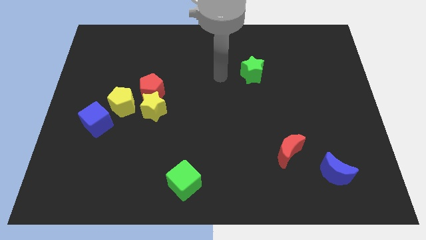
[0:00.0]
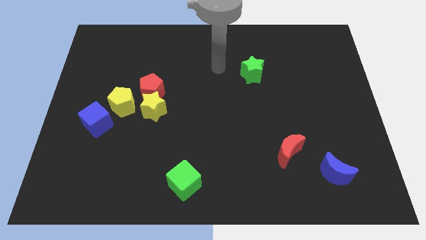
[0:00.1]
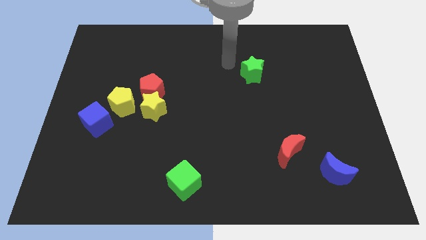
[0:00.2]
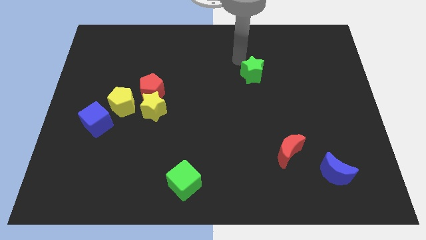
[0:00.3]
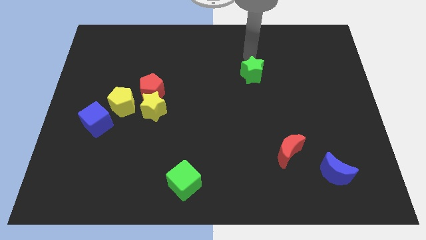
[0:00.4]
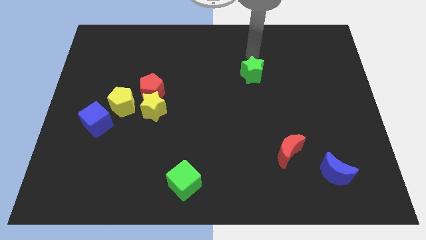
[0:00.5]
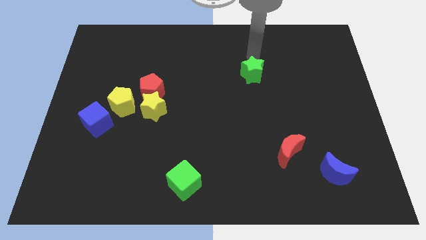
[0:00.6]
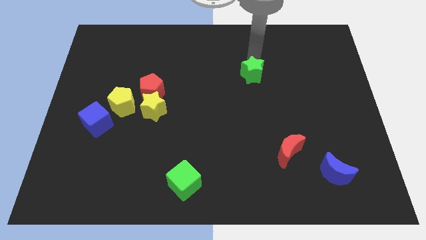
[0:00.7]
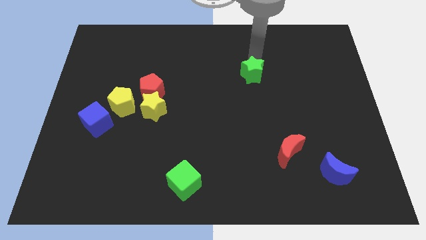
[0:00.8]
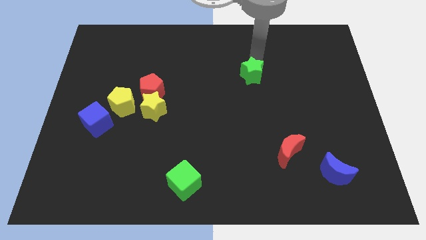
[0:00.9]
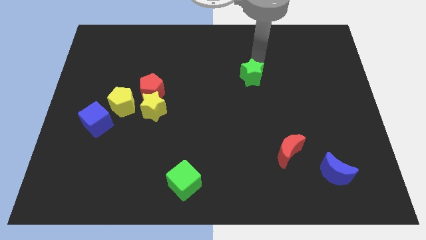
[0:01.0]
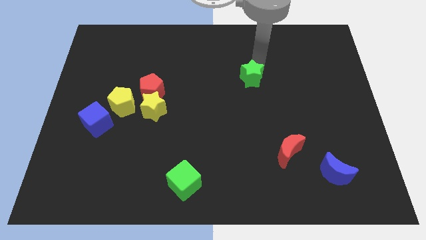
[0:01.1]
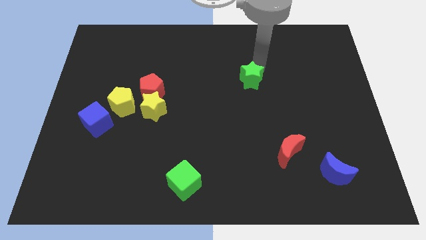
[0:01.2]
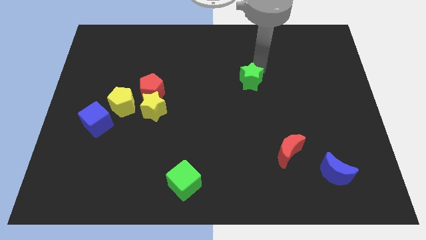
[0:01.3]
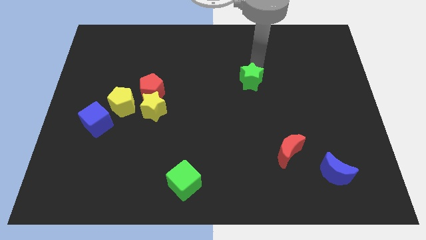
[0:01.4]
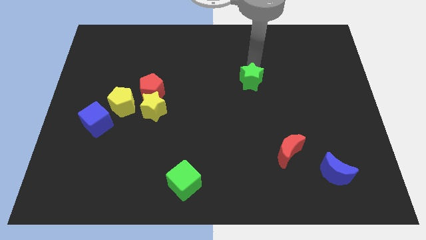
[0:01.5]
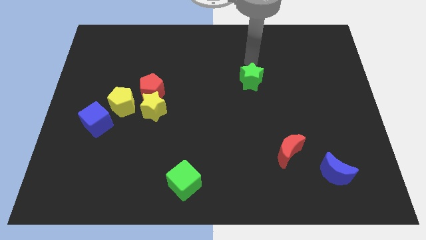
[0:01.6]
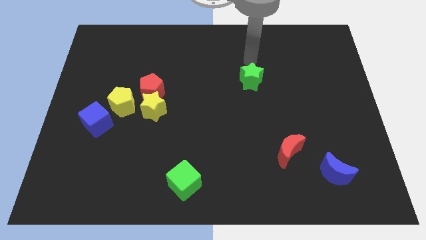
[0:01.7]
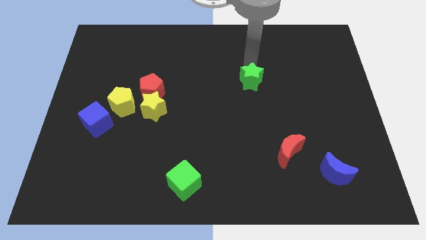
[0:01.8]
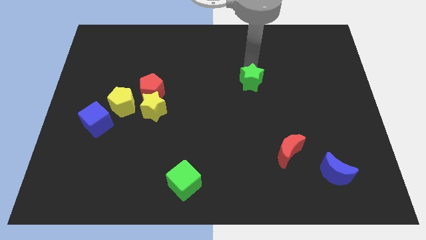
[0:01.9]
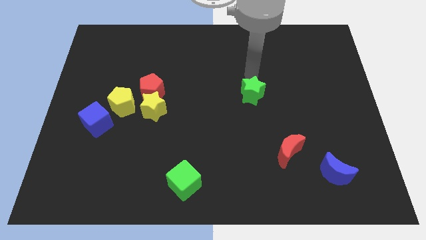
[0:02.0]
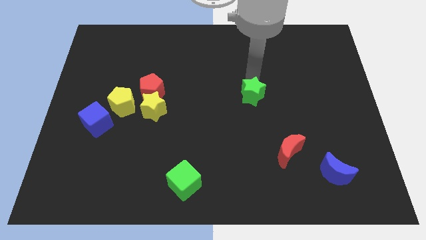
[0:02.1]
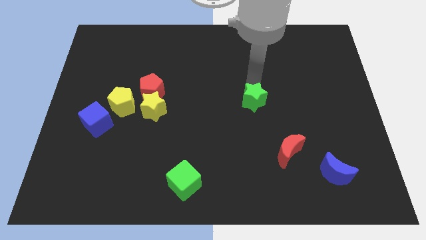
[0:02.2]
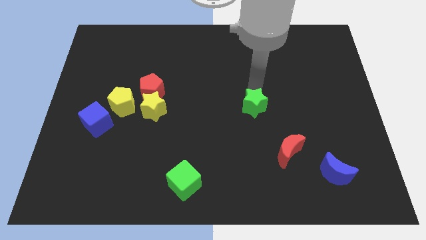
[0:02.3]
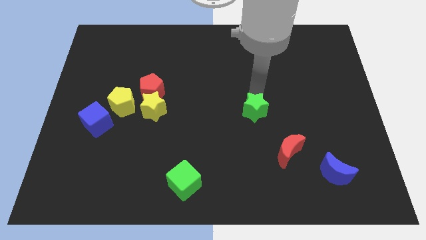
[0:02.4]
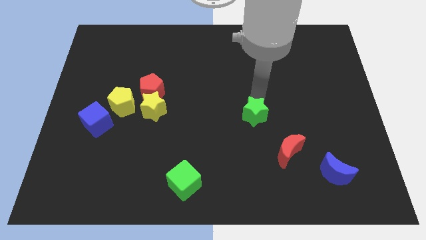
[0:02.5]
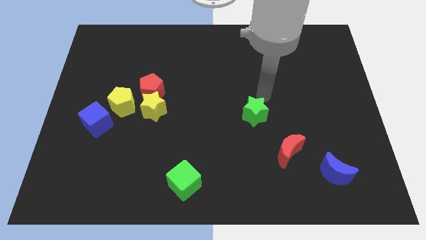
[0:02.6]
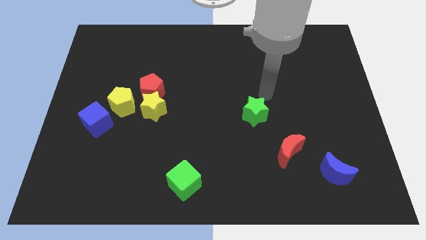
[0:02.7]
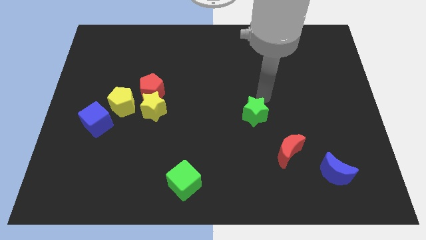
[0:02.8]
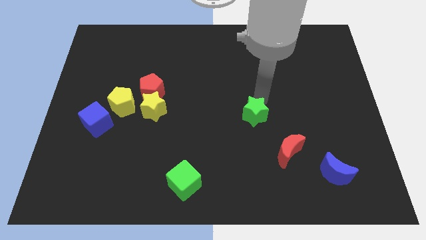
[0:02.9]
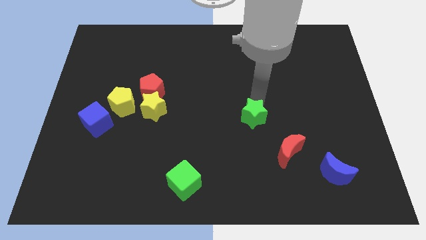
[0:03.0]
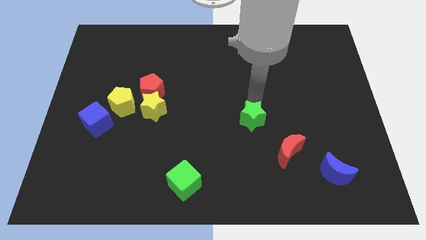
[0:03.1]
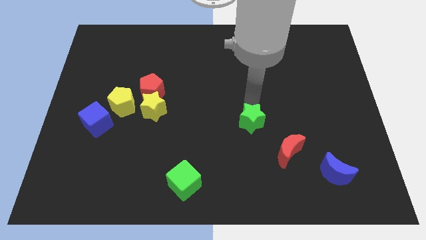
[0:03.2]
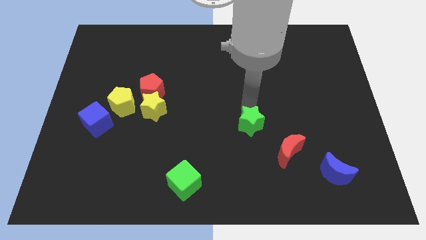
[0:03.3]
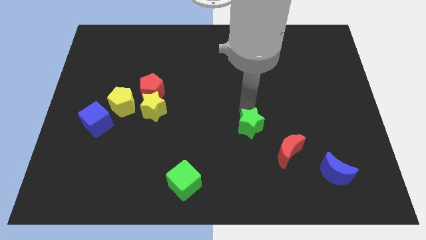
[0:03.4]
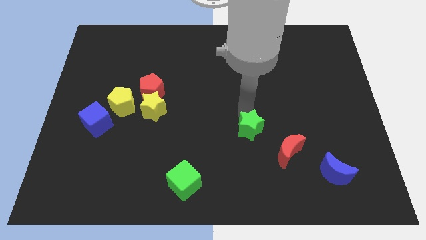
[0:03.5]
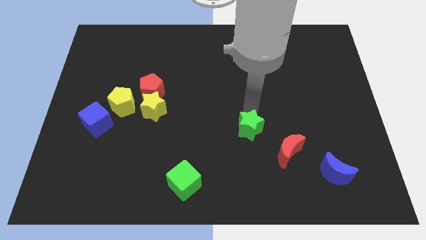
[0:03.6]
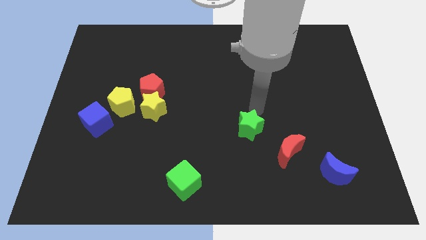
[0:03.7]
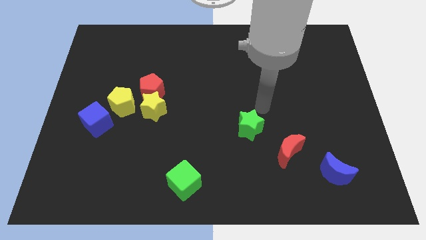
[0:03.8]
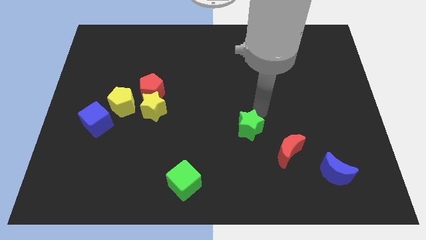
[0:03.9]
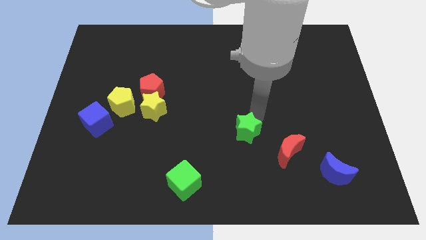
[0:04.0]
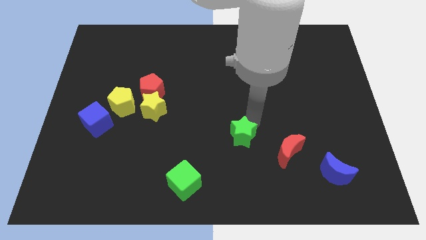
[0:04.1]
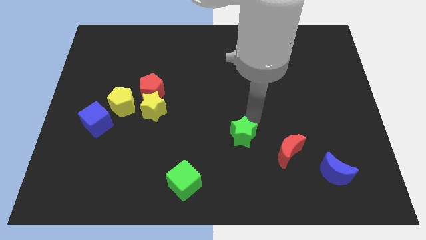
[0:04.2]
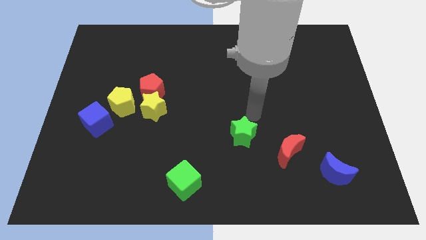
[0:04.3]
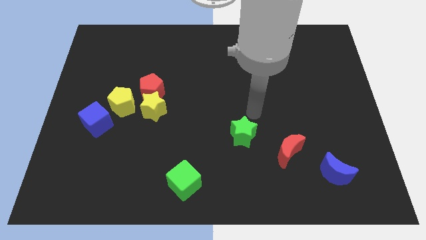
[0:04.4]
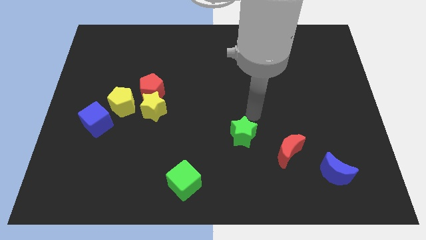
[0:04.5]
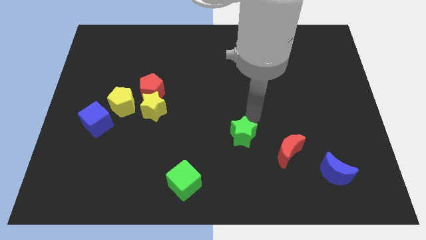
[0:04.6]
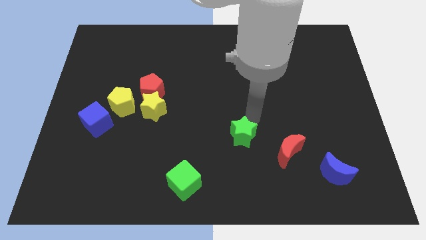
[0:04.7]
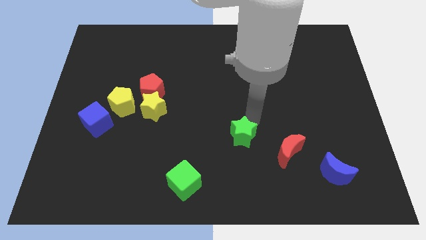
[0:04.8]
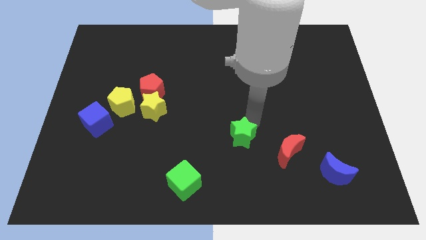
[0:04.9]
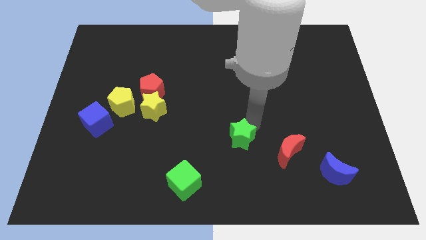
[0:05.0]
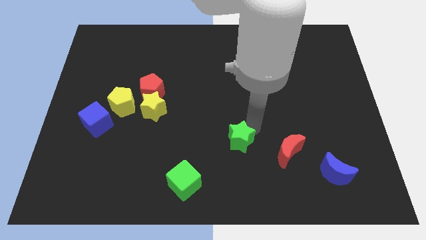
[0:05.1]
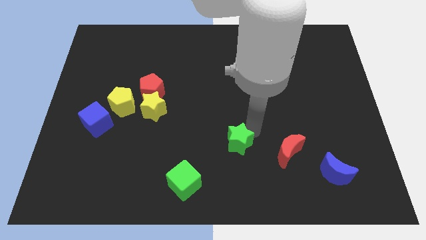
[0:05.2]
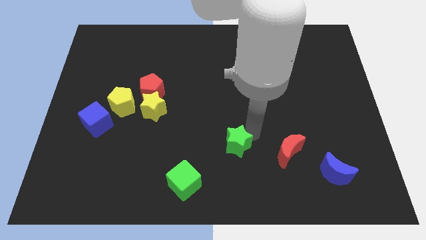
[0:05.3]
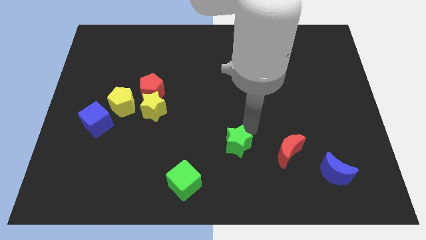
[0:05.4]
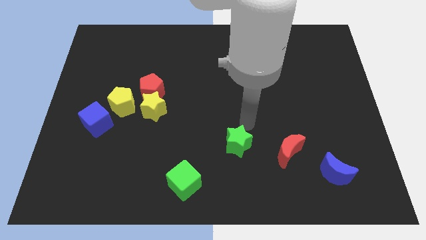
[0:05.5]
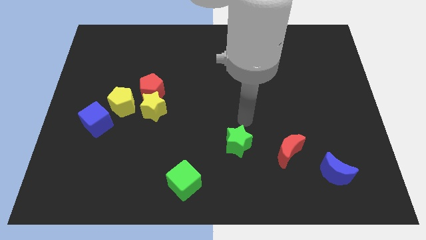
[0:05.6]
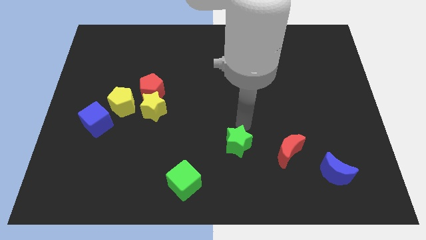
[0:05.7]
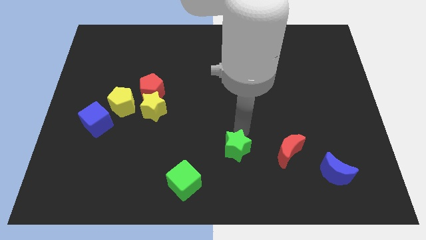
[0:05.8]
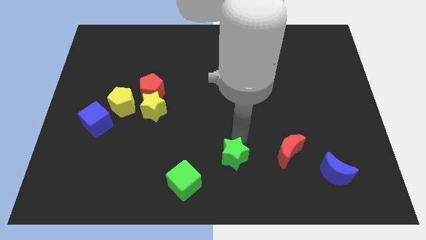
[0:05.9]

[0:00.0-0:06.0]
slide the green star to the bottom side
